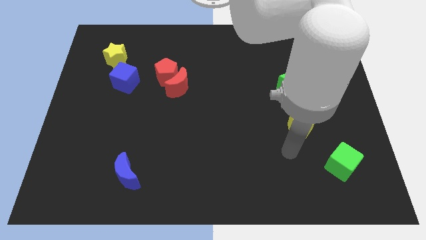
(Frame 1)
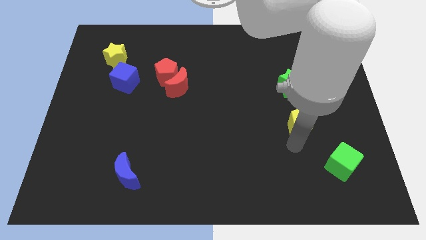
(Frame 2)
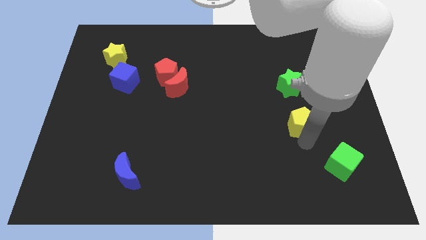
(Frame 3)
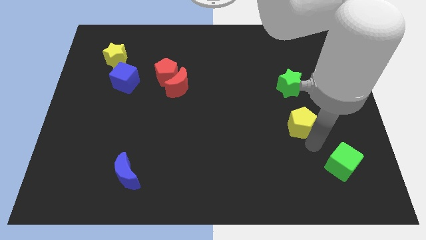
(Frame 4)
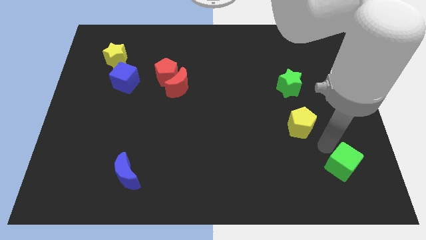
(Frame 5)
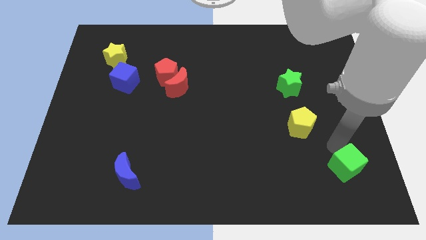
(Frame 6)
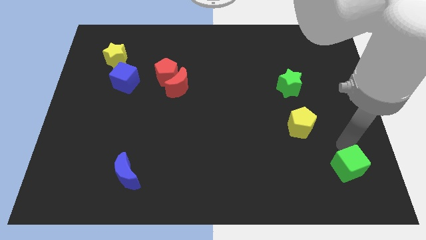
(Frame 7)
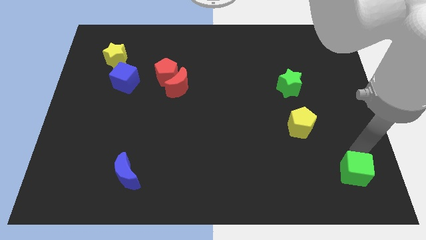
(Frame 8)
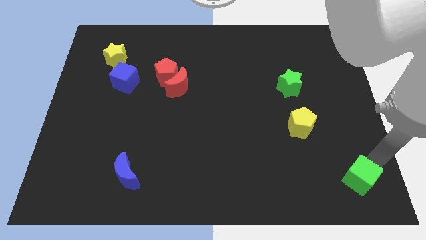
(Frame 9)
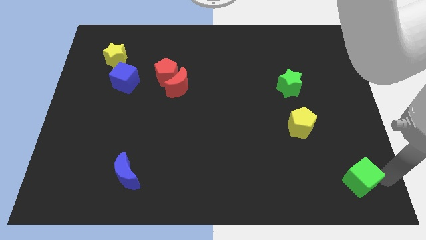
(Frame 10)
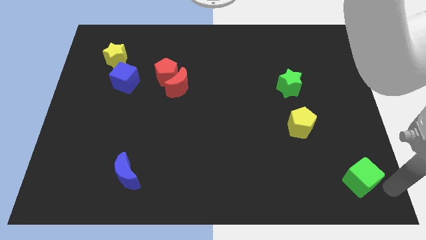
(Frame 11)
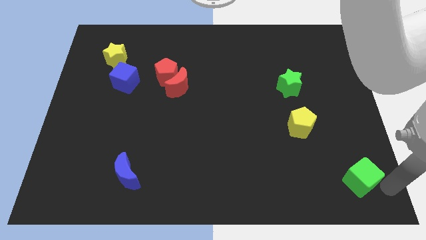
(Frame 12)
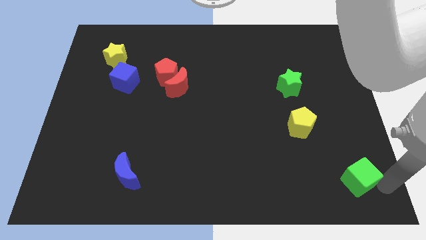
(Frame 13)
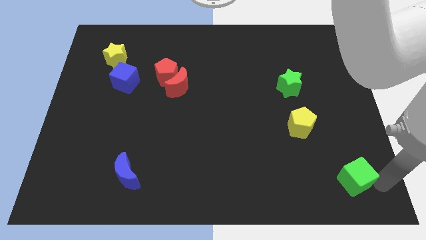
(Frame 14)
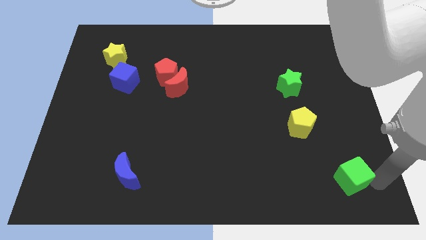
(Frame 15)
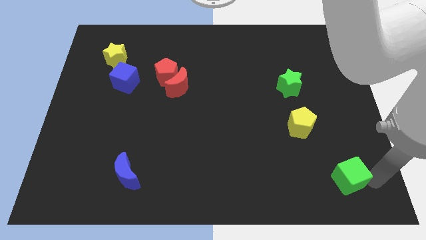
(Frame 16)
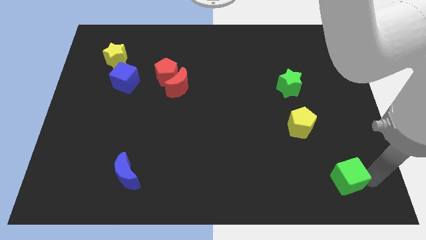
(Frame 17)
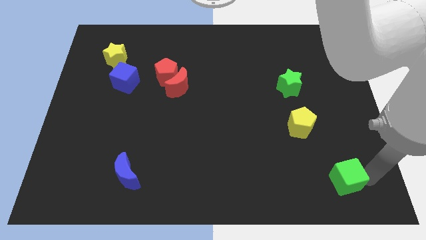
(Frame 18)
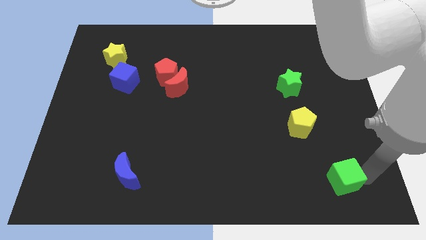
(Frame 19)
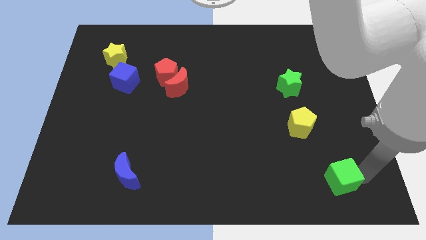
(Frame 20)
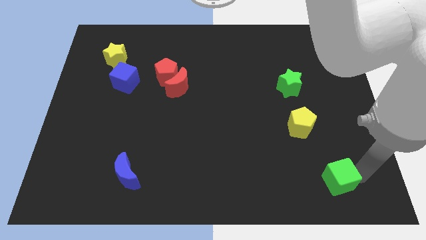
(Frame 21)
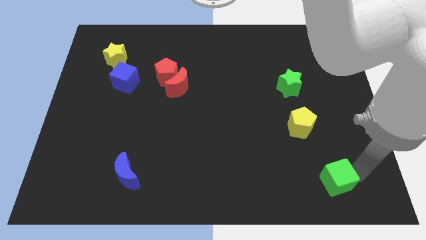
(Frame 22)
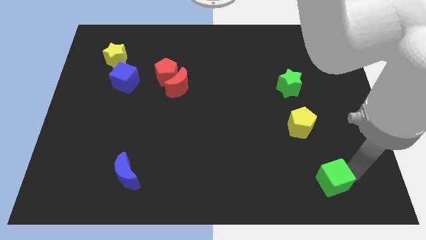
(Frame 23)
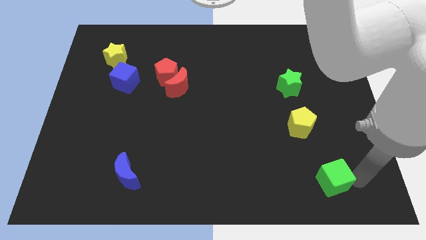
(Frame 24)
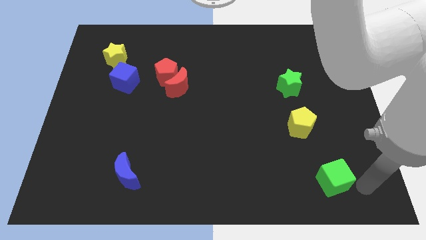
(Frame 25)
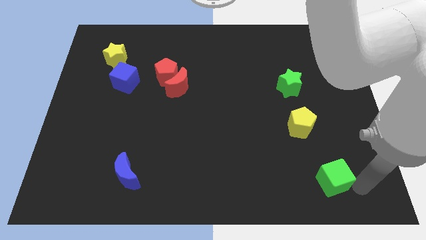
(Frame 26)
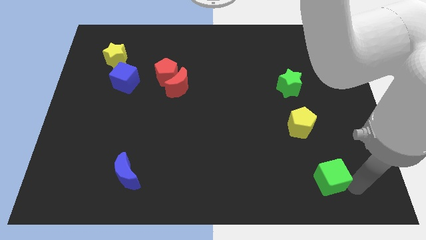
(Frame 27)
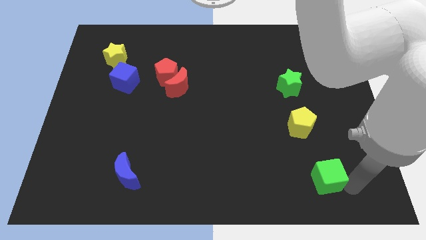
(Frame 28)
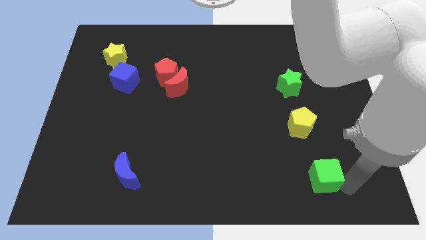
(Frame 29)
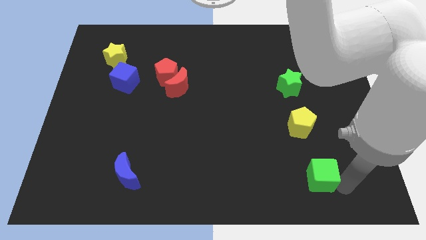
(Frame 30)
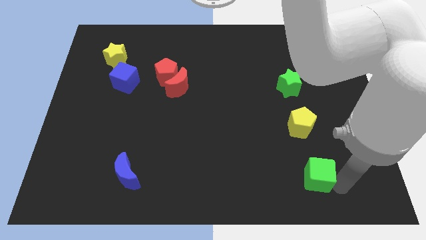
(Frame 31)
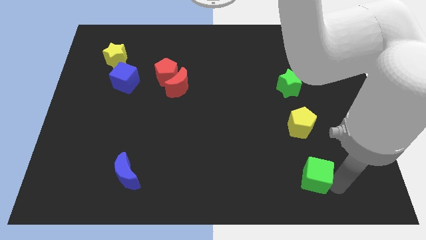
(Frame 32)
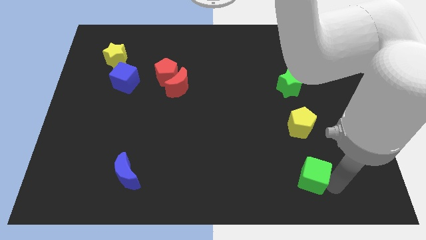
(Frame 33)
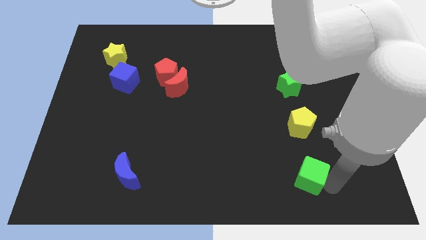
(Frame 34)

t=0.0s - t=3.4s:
slide the green cube to the left a little bit

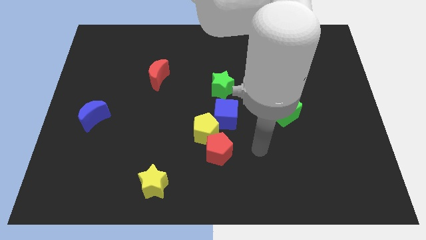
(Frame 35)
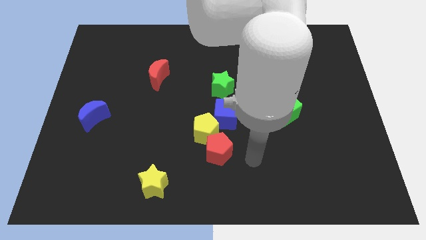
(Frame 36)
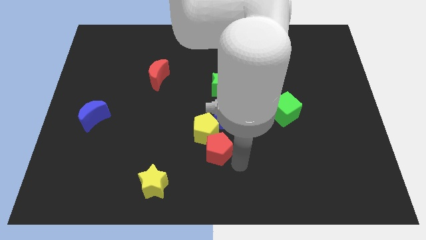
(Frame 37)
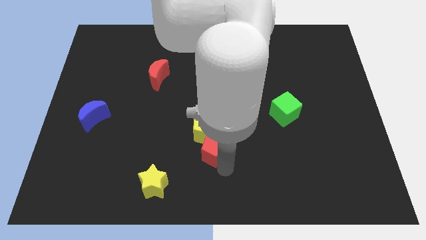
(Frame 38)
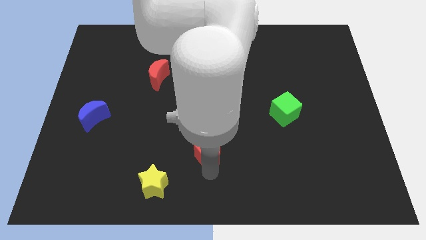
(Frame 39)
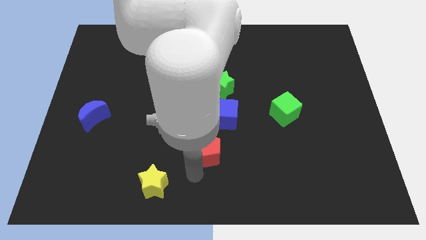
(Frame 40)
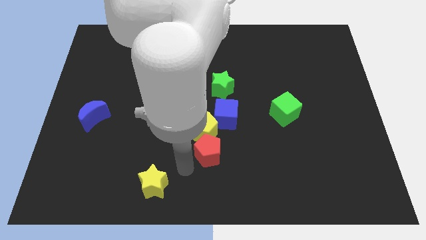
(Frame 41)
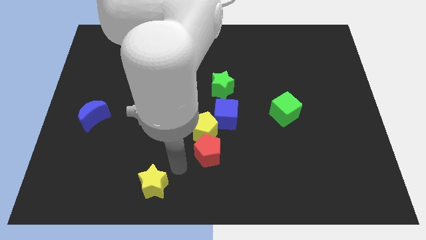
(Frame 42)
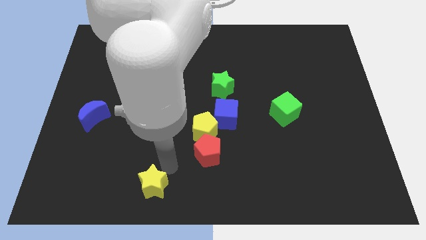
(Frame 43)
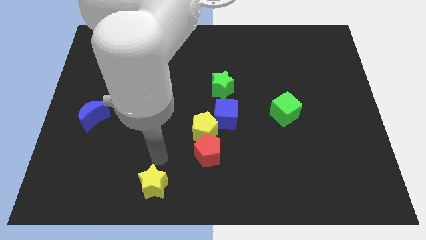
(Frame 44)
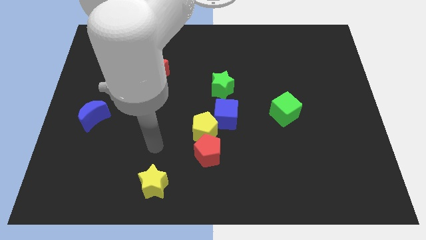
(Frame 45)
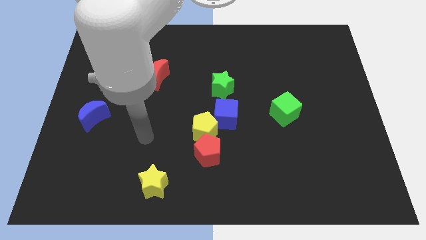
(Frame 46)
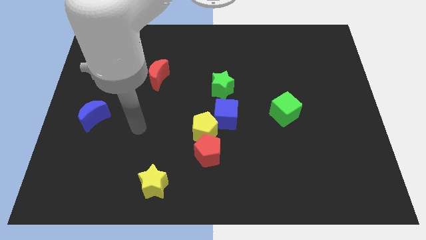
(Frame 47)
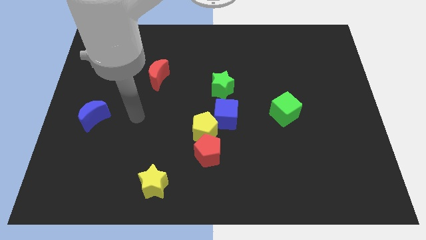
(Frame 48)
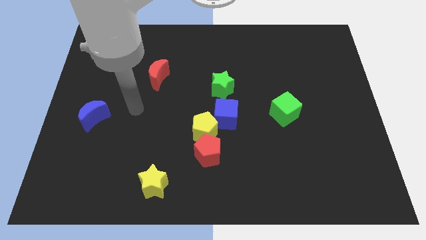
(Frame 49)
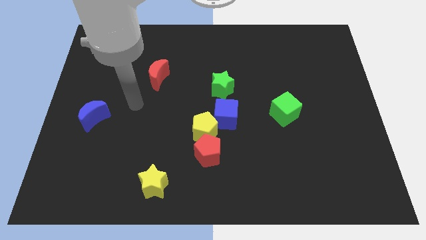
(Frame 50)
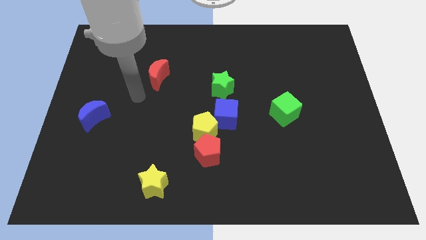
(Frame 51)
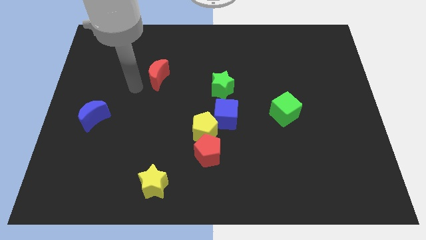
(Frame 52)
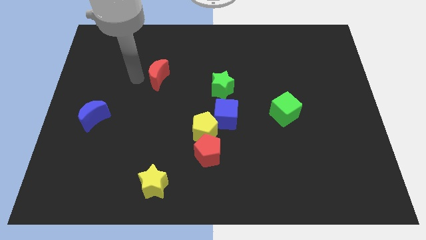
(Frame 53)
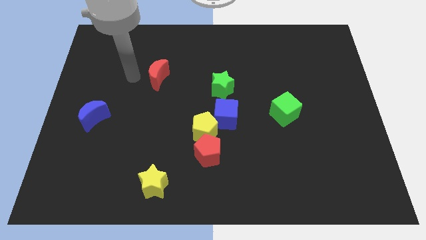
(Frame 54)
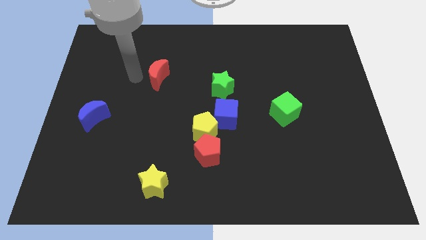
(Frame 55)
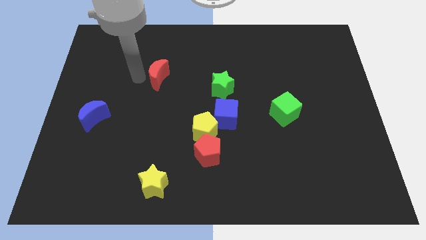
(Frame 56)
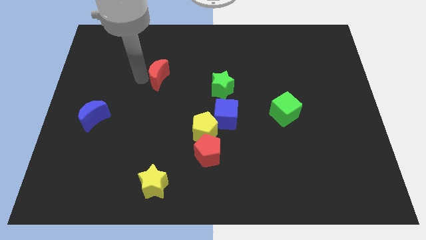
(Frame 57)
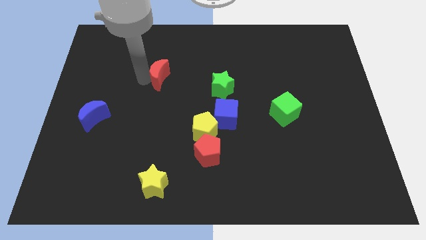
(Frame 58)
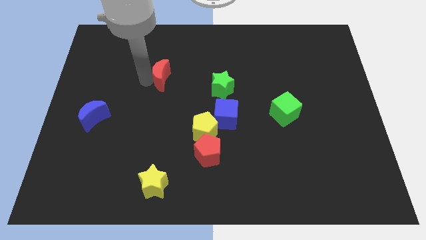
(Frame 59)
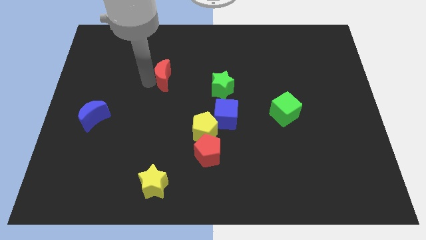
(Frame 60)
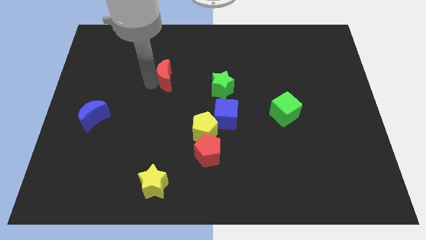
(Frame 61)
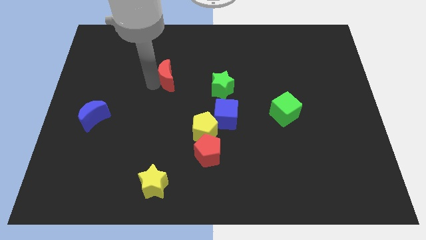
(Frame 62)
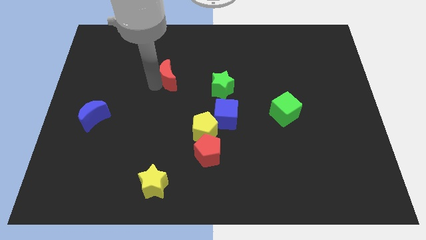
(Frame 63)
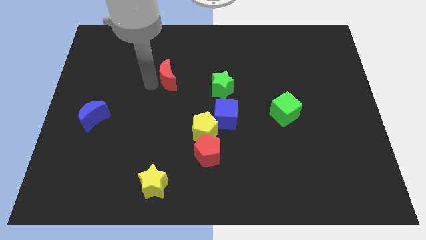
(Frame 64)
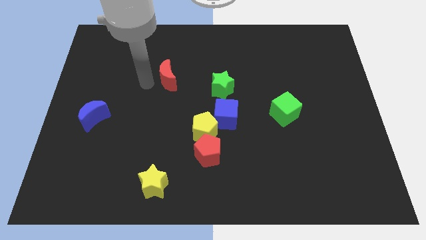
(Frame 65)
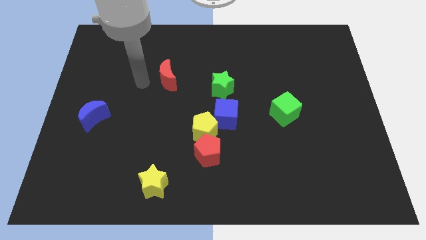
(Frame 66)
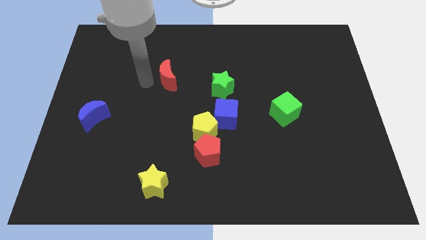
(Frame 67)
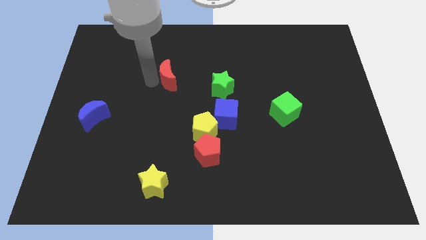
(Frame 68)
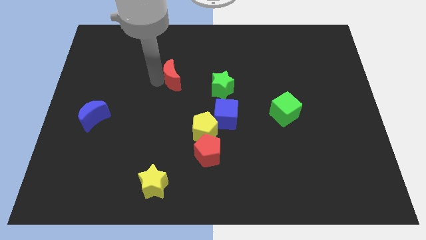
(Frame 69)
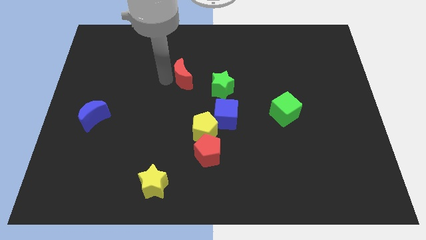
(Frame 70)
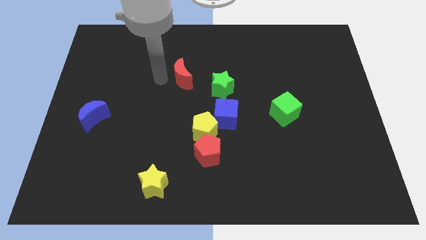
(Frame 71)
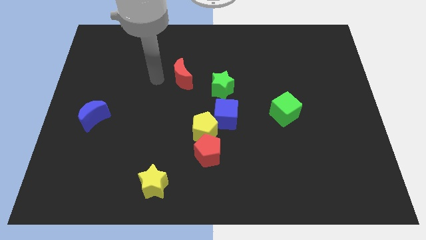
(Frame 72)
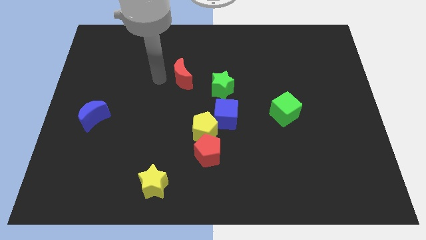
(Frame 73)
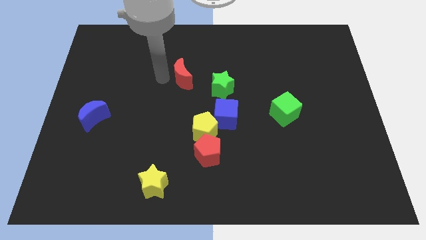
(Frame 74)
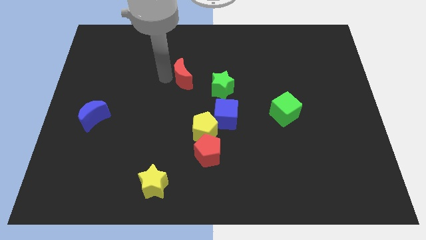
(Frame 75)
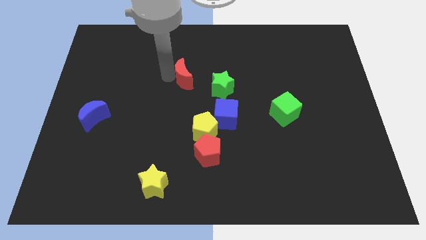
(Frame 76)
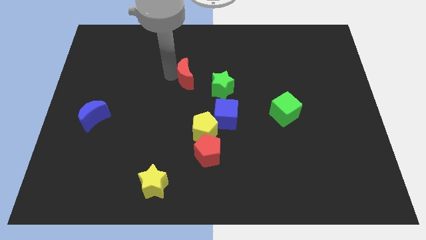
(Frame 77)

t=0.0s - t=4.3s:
slightly push the red moon right

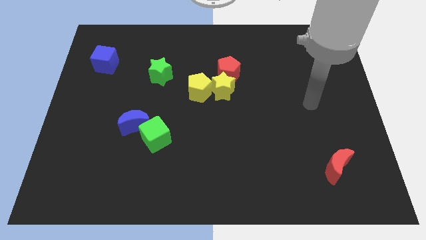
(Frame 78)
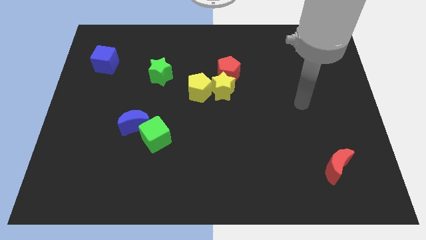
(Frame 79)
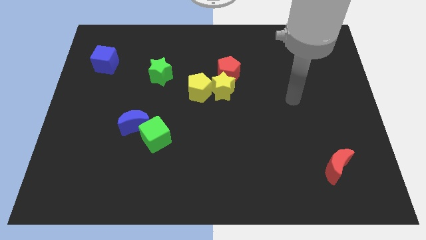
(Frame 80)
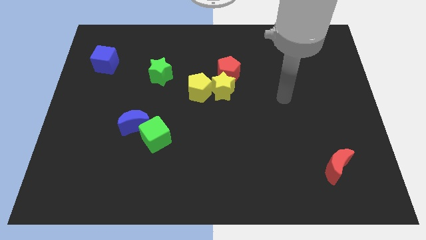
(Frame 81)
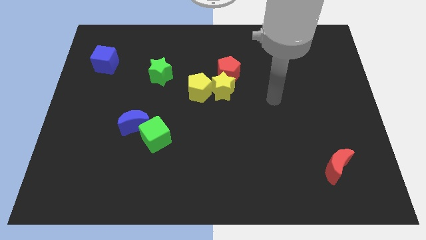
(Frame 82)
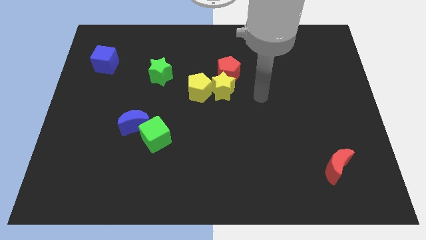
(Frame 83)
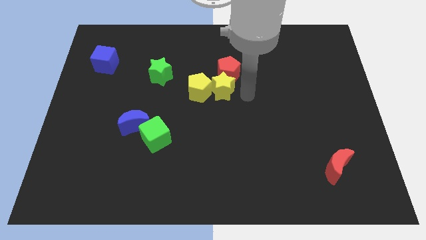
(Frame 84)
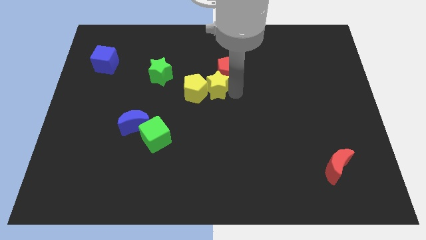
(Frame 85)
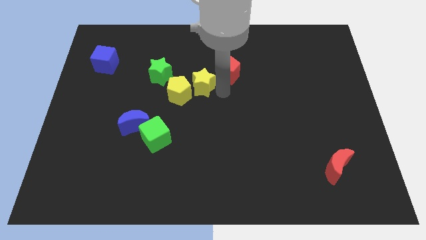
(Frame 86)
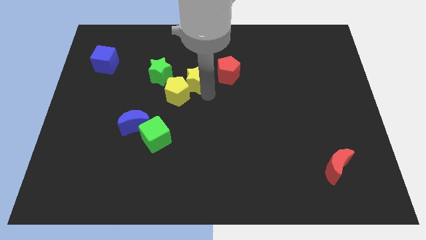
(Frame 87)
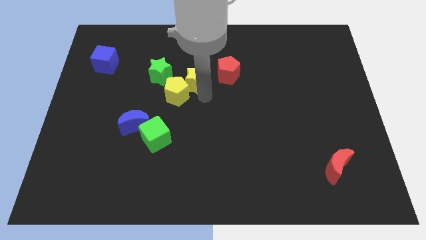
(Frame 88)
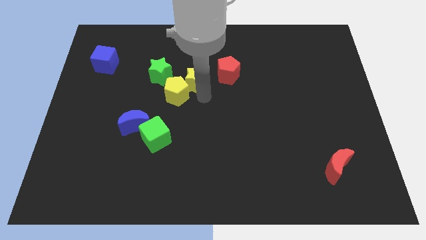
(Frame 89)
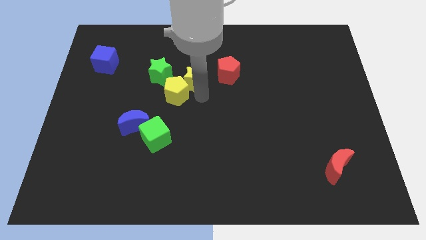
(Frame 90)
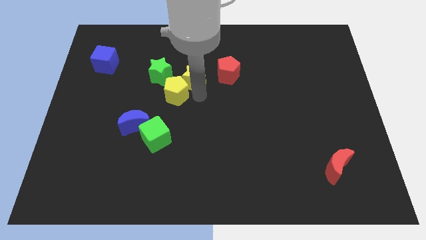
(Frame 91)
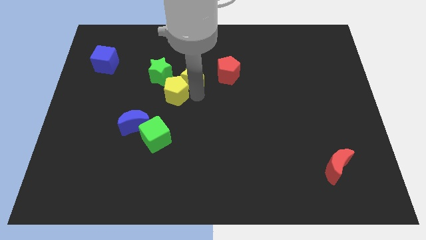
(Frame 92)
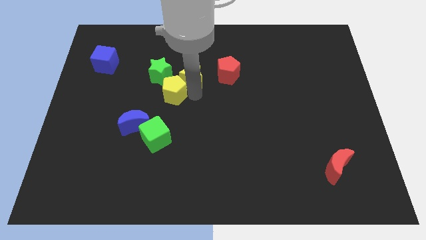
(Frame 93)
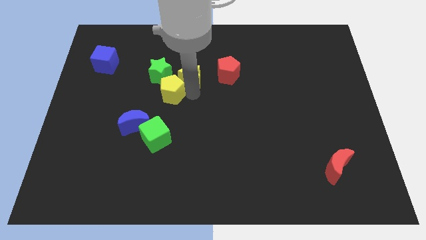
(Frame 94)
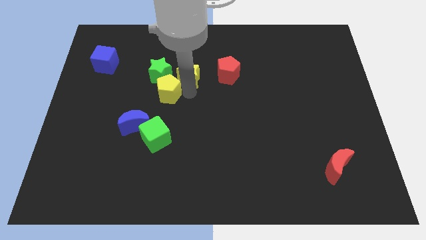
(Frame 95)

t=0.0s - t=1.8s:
slide the yellow pentagon a little bit left
